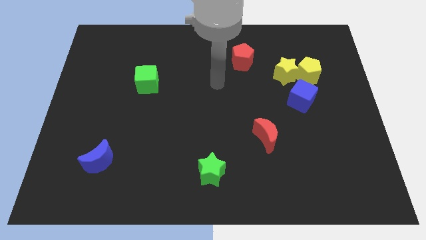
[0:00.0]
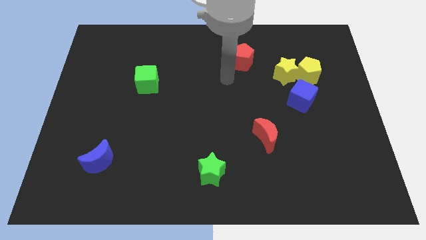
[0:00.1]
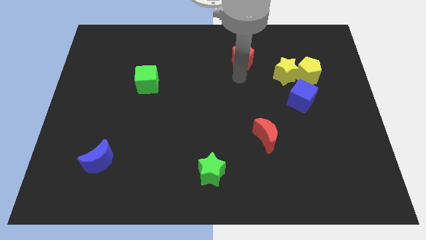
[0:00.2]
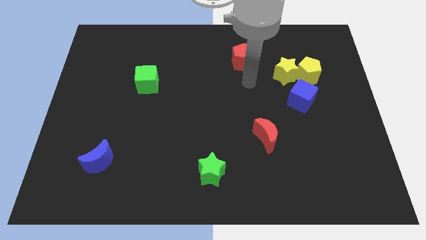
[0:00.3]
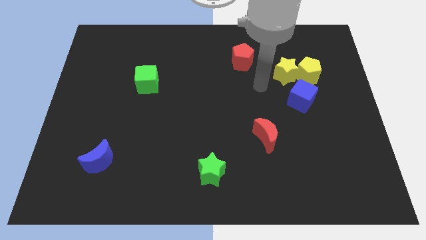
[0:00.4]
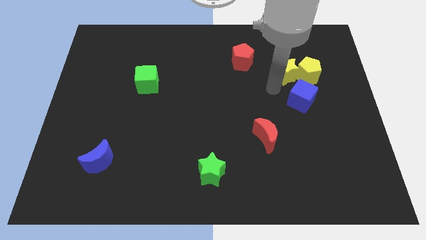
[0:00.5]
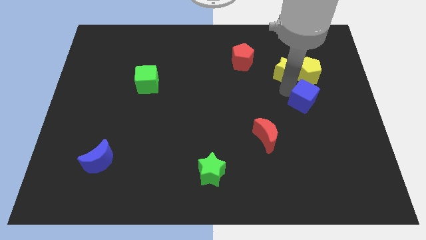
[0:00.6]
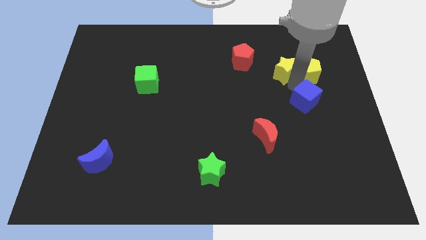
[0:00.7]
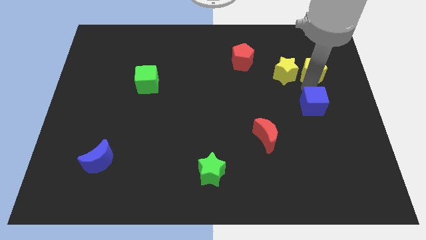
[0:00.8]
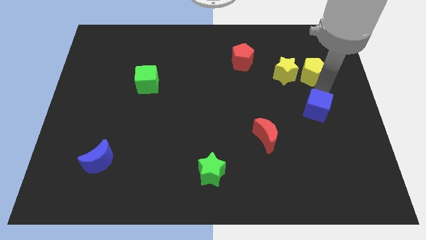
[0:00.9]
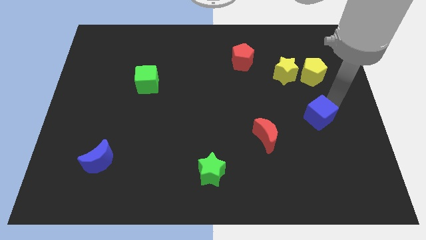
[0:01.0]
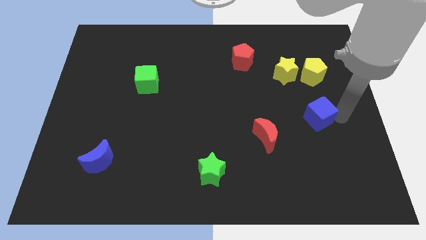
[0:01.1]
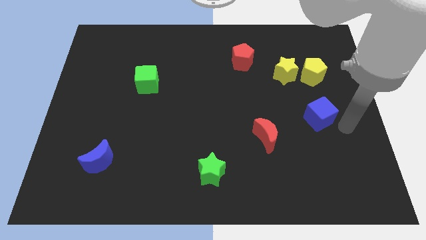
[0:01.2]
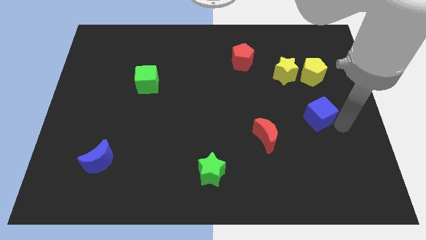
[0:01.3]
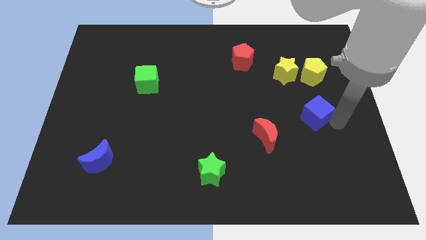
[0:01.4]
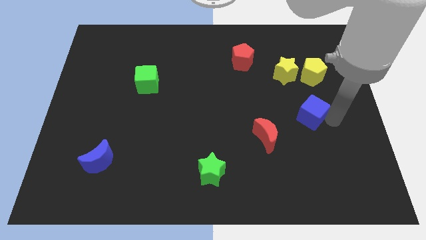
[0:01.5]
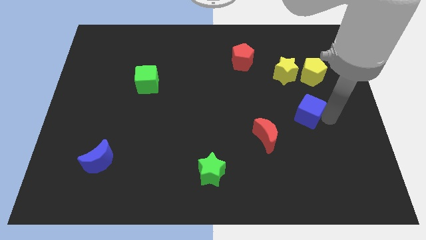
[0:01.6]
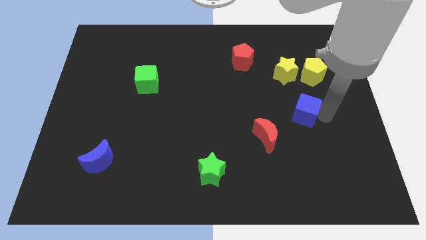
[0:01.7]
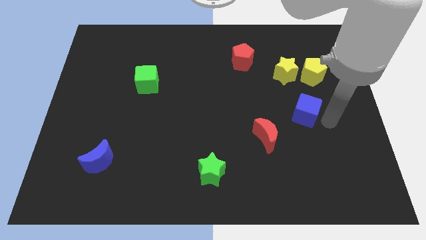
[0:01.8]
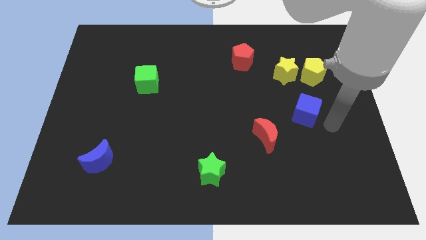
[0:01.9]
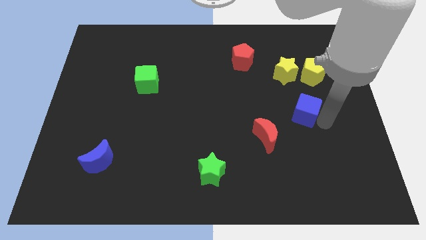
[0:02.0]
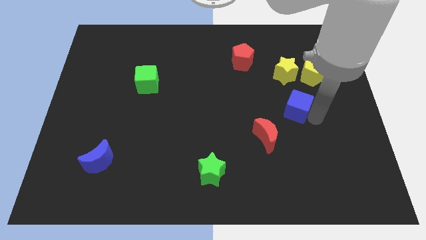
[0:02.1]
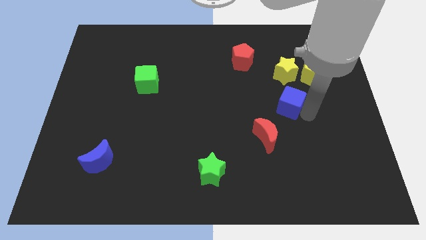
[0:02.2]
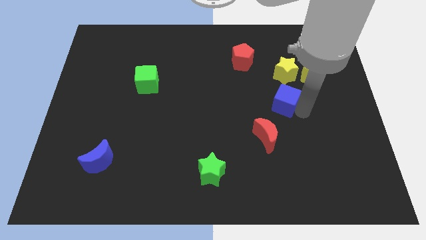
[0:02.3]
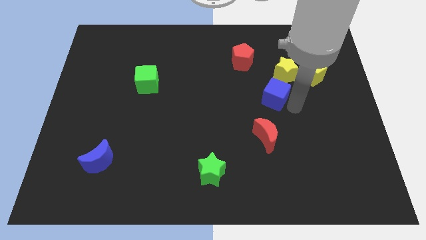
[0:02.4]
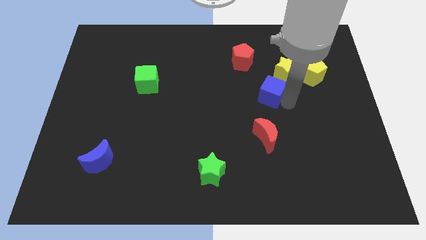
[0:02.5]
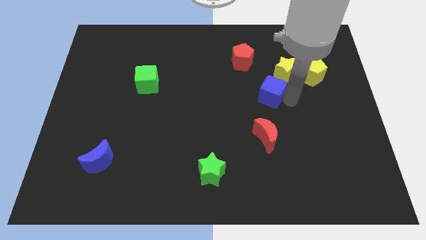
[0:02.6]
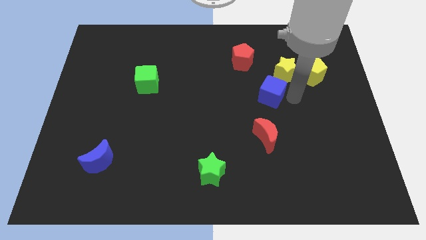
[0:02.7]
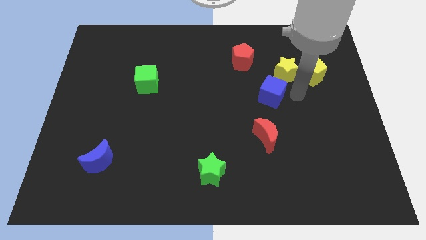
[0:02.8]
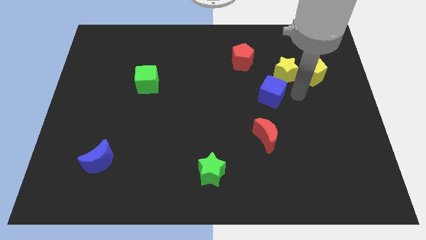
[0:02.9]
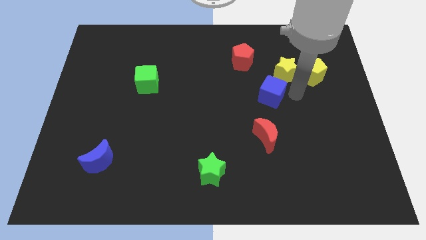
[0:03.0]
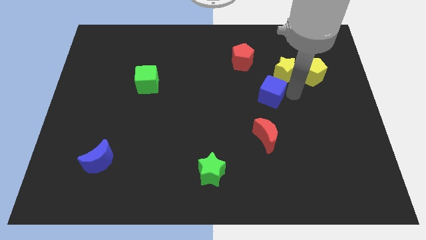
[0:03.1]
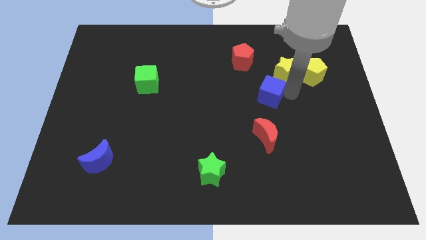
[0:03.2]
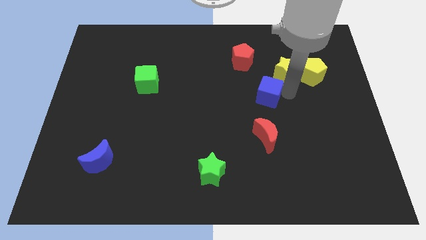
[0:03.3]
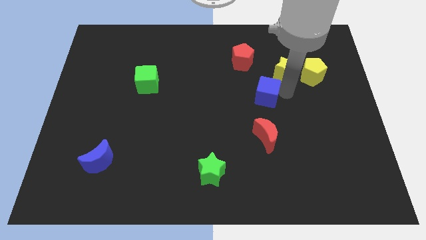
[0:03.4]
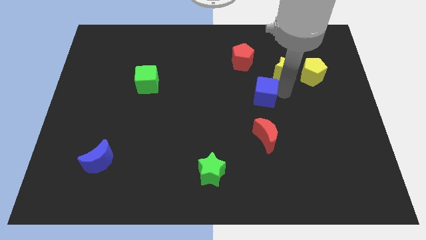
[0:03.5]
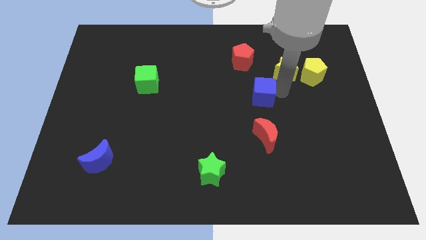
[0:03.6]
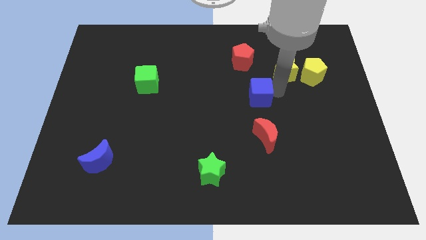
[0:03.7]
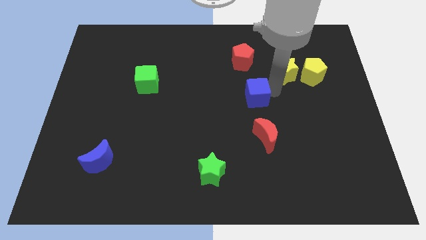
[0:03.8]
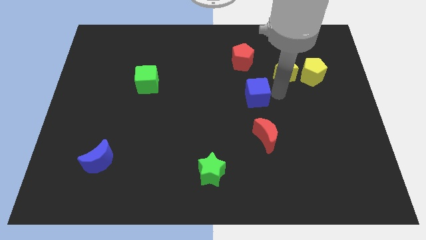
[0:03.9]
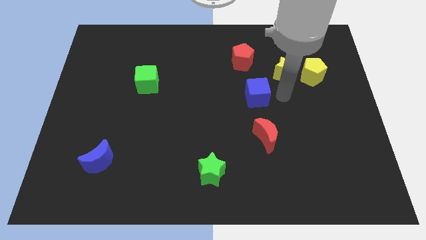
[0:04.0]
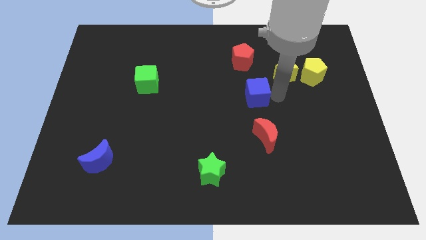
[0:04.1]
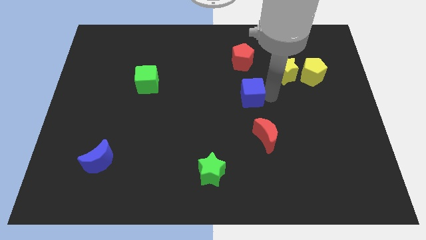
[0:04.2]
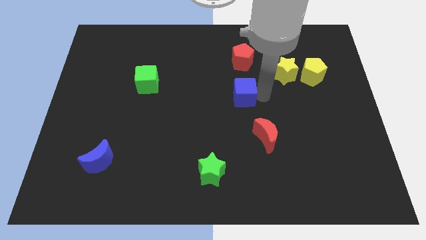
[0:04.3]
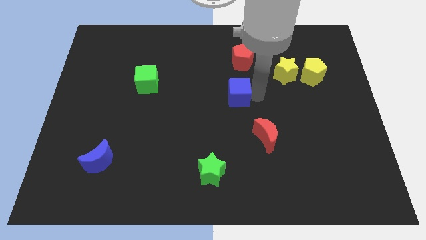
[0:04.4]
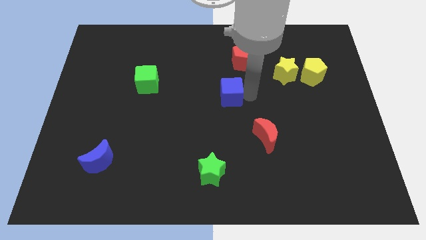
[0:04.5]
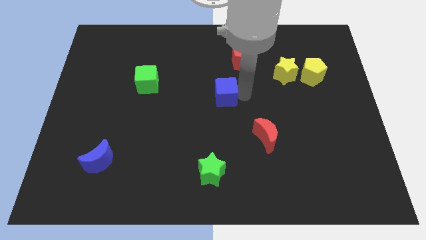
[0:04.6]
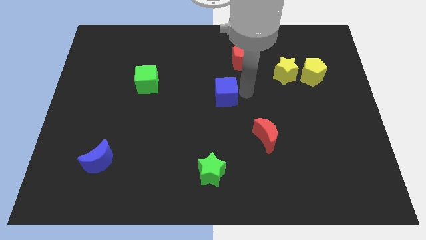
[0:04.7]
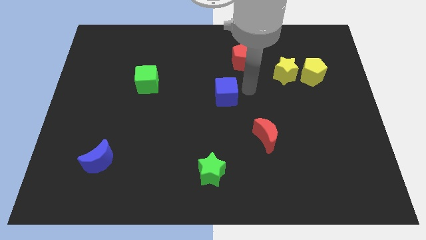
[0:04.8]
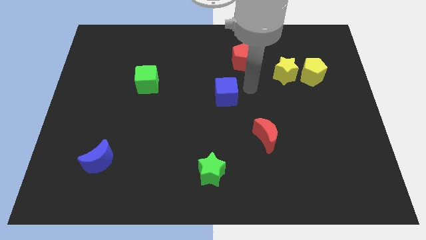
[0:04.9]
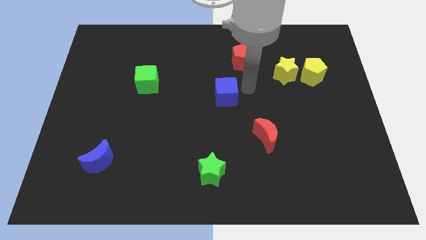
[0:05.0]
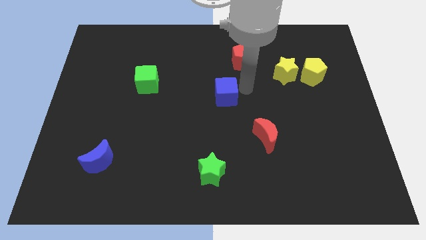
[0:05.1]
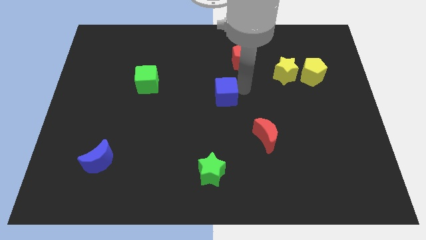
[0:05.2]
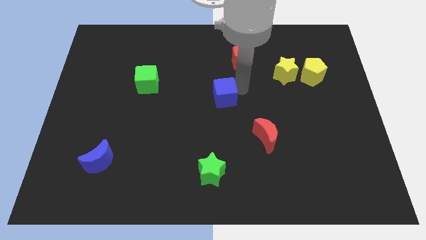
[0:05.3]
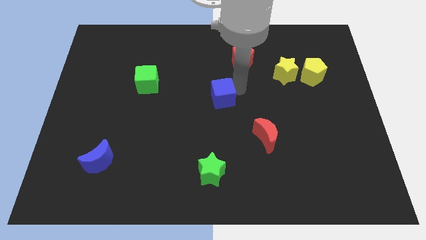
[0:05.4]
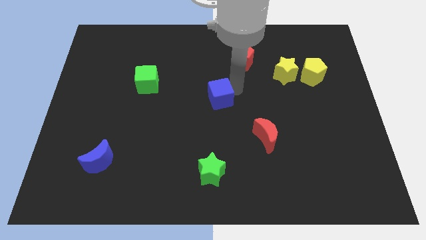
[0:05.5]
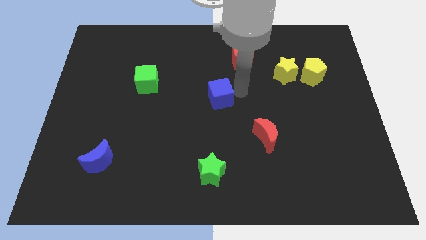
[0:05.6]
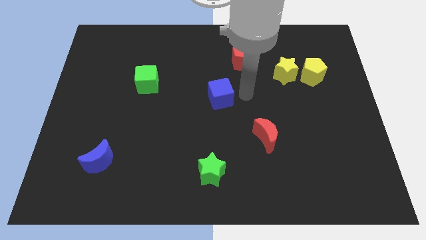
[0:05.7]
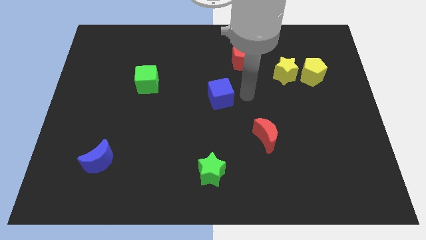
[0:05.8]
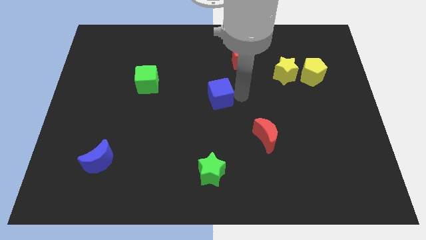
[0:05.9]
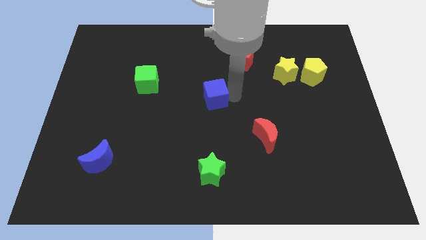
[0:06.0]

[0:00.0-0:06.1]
push the blue cube to the left

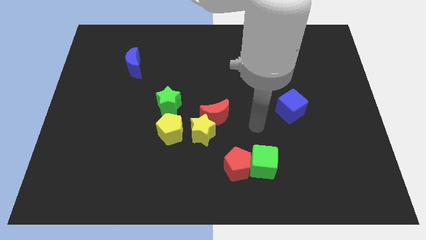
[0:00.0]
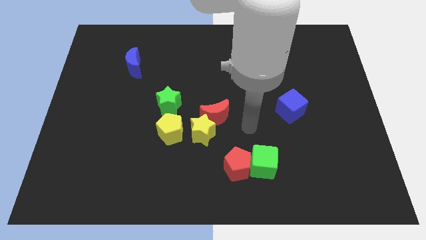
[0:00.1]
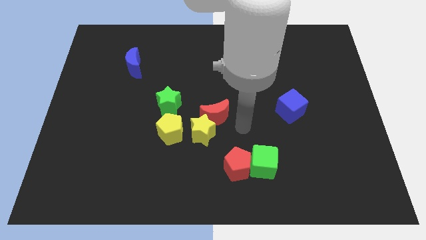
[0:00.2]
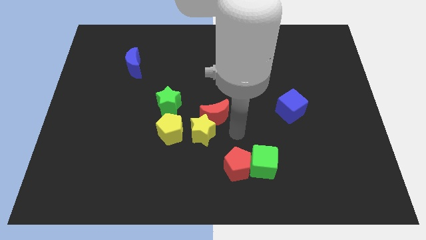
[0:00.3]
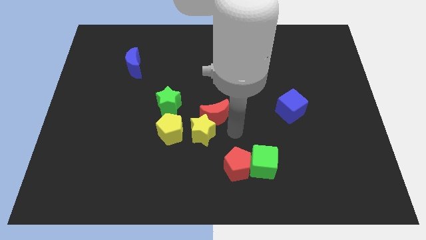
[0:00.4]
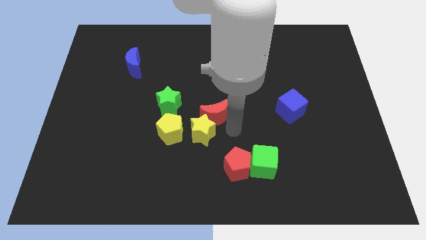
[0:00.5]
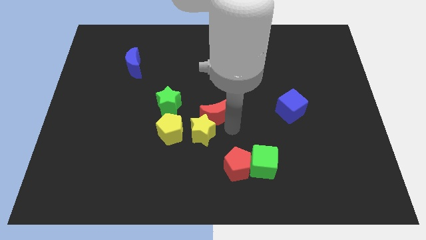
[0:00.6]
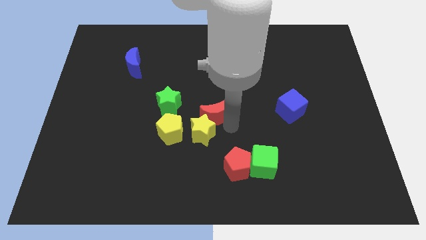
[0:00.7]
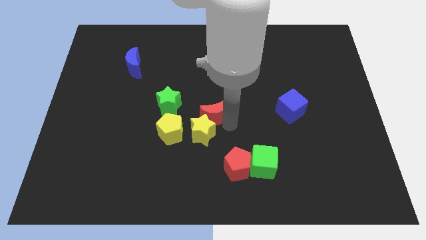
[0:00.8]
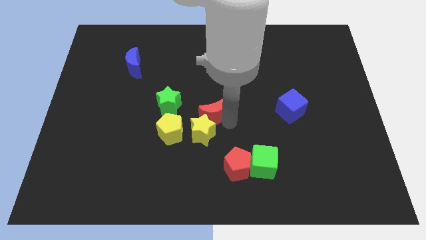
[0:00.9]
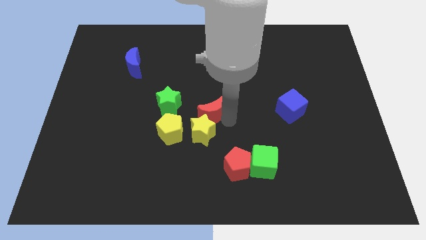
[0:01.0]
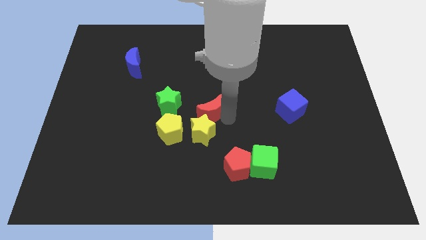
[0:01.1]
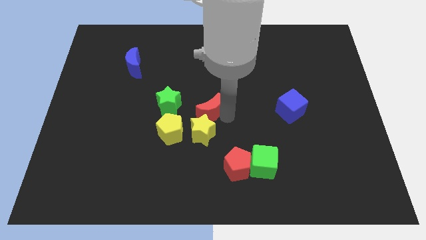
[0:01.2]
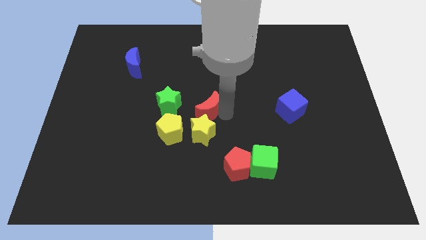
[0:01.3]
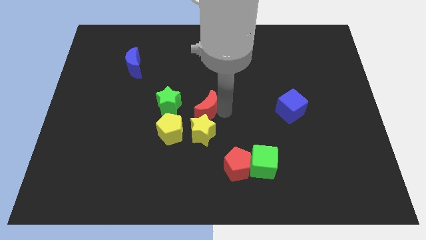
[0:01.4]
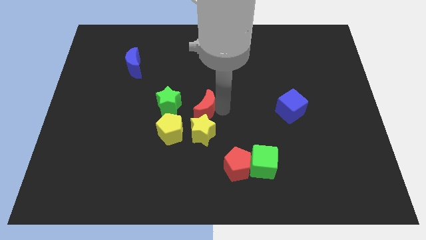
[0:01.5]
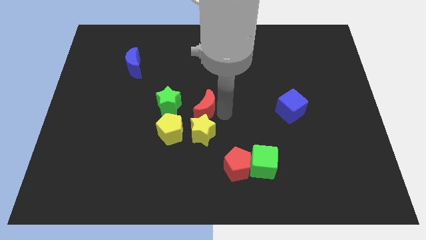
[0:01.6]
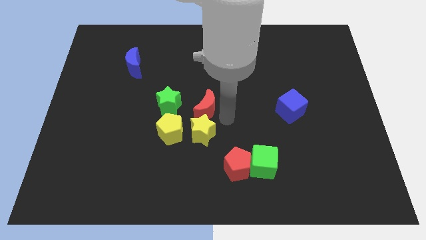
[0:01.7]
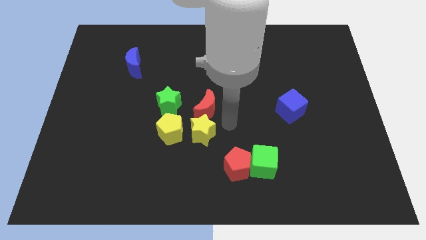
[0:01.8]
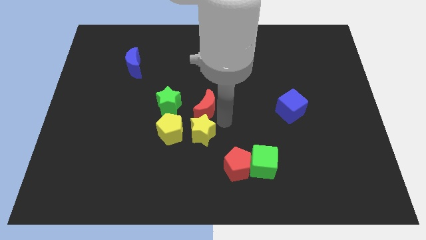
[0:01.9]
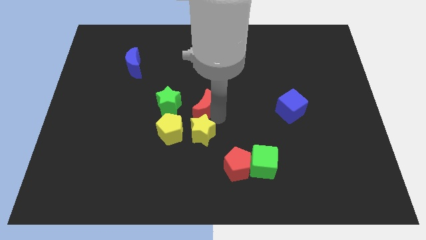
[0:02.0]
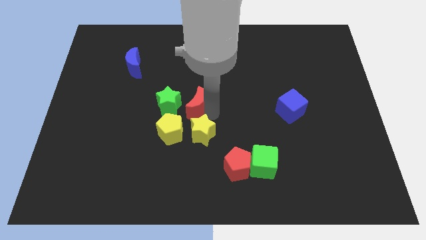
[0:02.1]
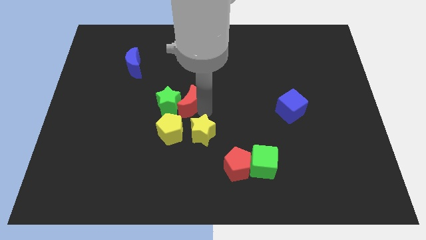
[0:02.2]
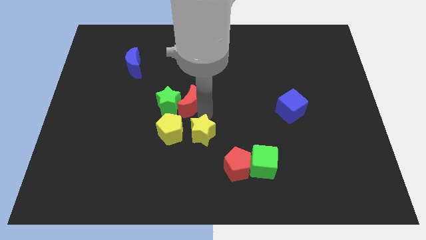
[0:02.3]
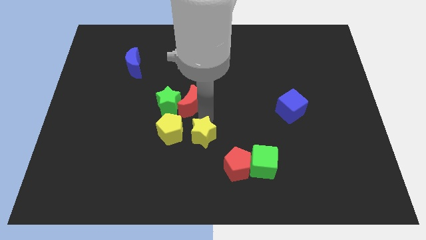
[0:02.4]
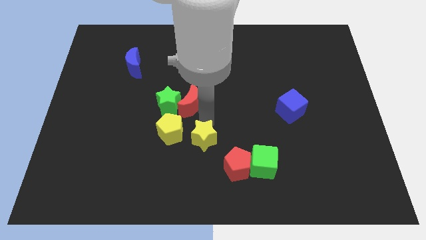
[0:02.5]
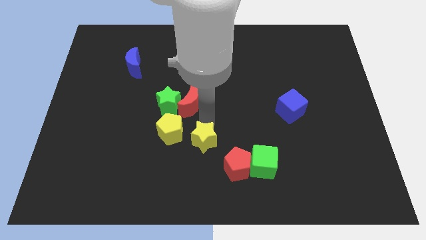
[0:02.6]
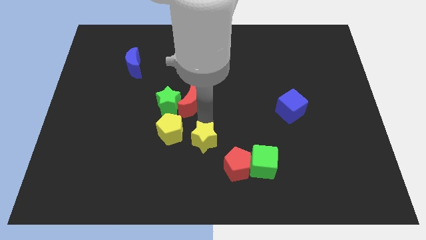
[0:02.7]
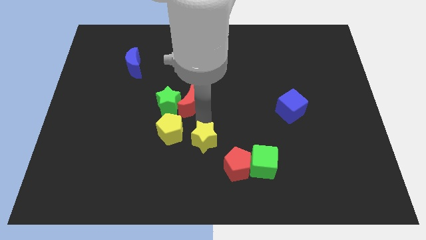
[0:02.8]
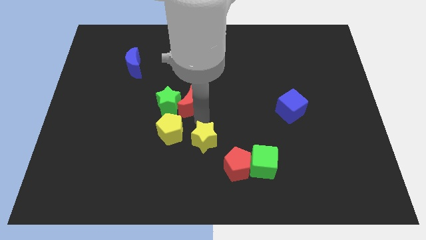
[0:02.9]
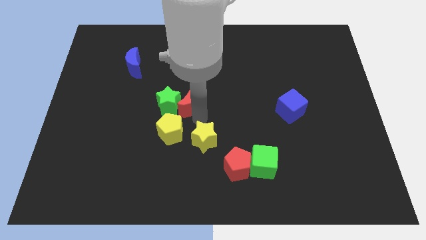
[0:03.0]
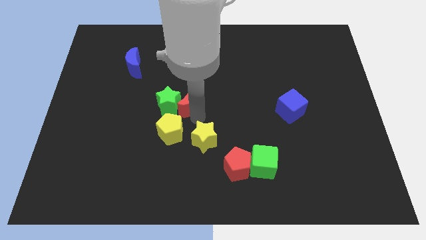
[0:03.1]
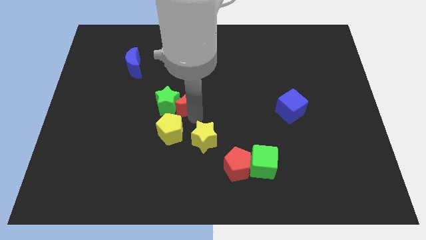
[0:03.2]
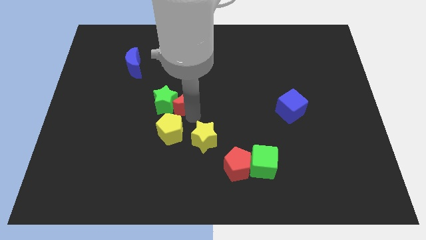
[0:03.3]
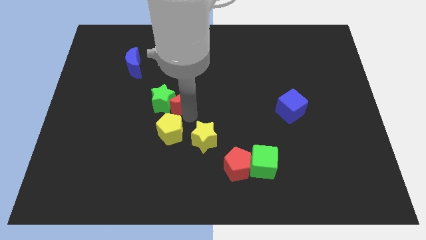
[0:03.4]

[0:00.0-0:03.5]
slide the red moon a little left
